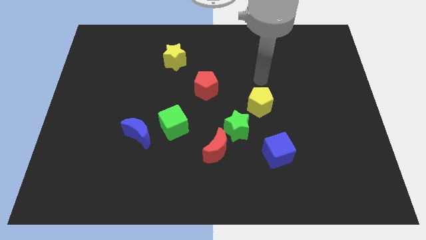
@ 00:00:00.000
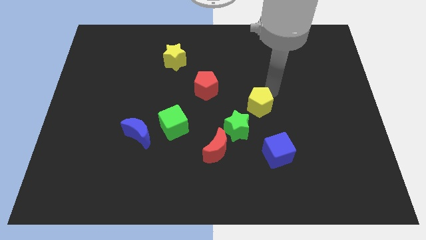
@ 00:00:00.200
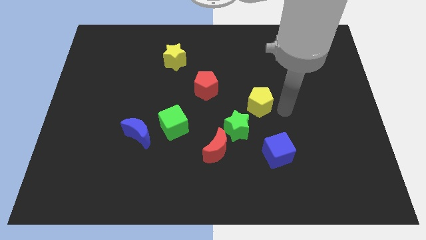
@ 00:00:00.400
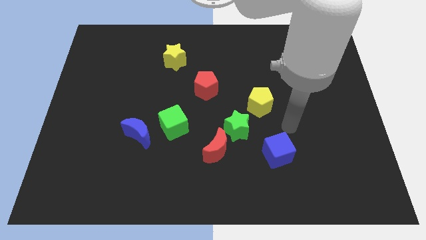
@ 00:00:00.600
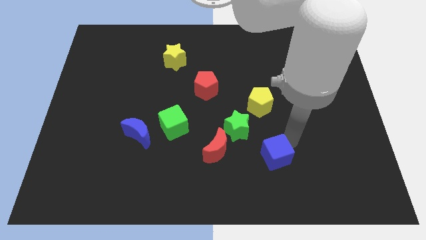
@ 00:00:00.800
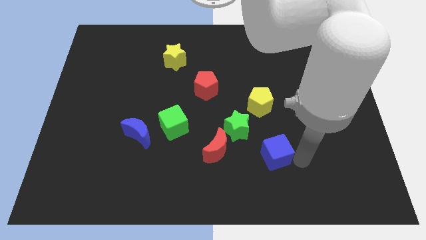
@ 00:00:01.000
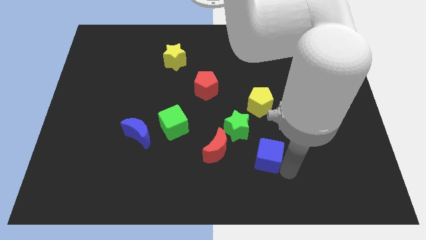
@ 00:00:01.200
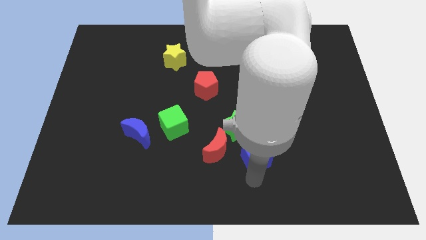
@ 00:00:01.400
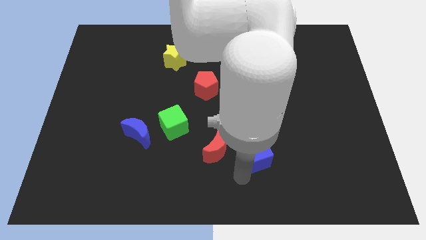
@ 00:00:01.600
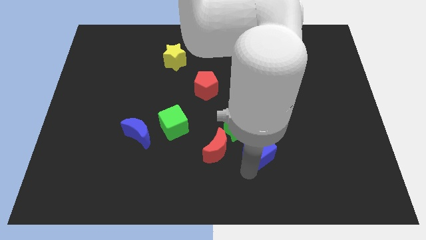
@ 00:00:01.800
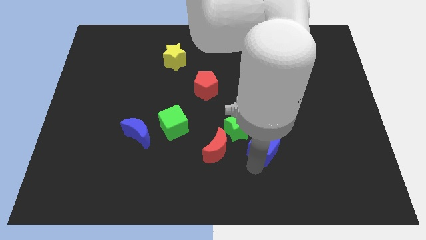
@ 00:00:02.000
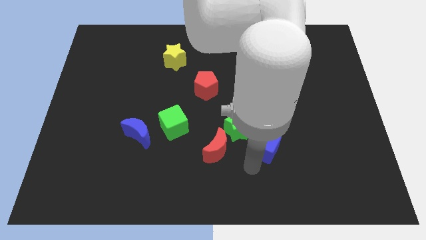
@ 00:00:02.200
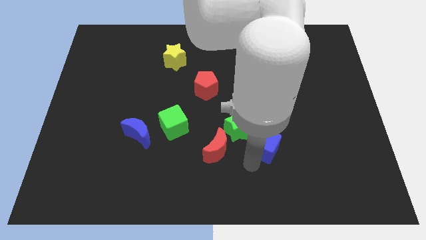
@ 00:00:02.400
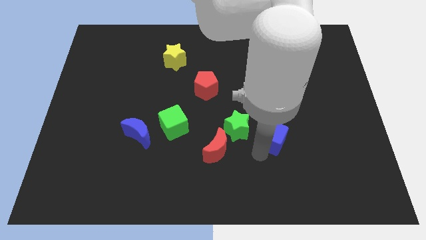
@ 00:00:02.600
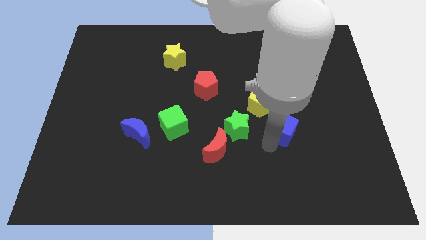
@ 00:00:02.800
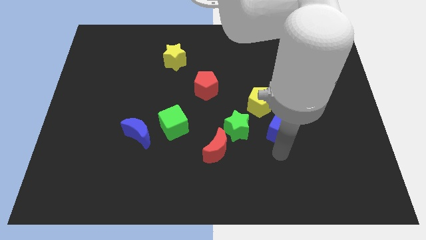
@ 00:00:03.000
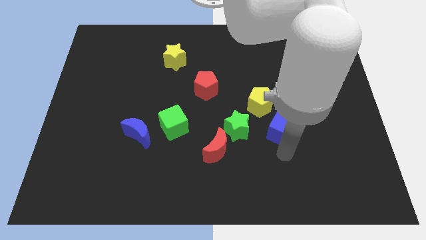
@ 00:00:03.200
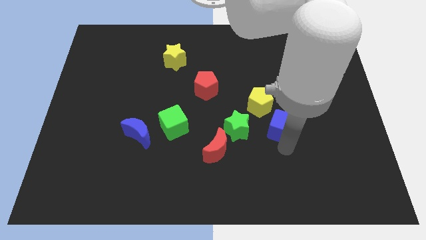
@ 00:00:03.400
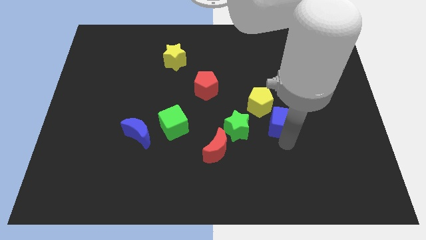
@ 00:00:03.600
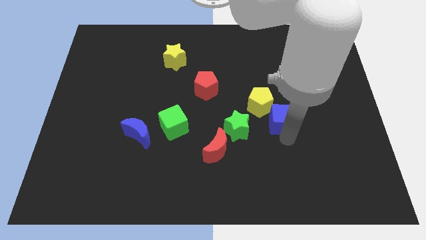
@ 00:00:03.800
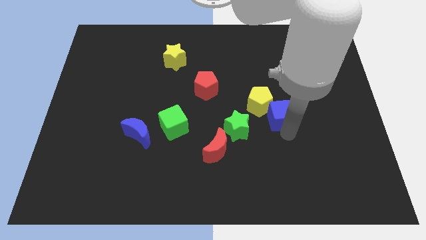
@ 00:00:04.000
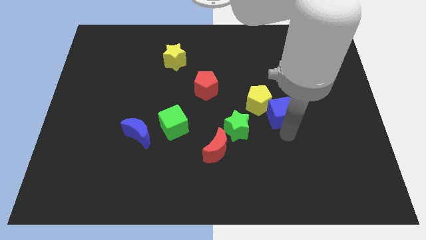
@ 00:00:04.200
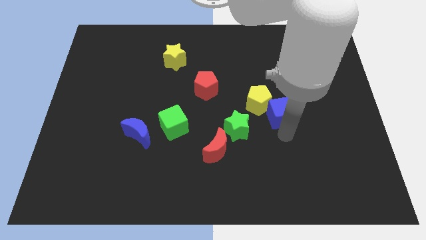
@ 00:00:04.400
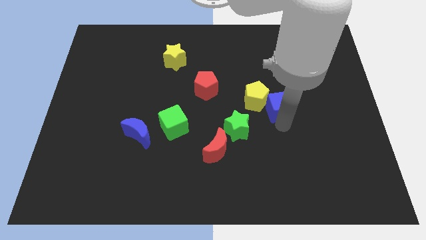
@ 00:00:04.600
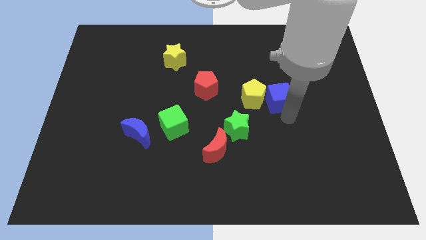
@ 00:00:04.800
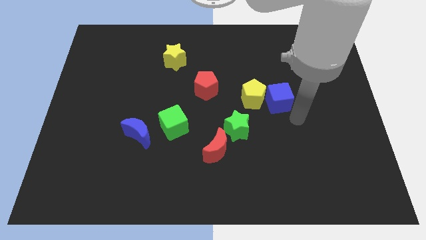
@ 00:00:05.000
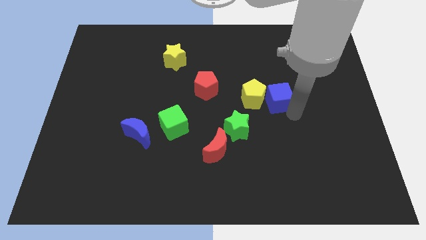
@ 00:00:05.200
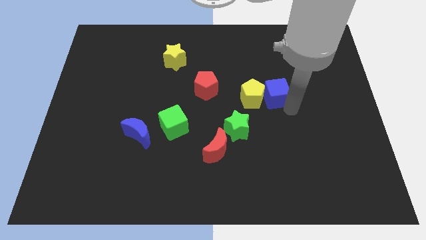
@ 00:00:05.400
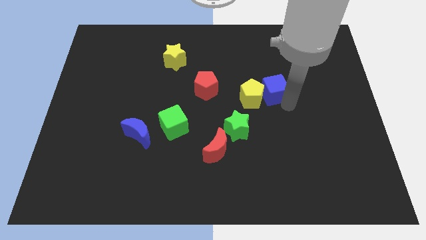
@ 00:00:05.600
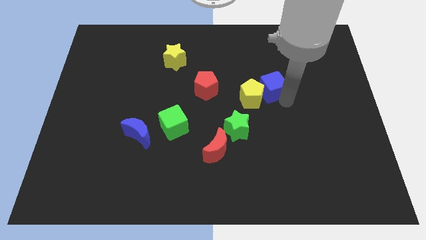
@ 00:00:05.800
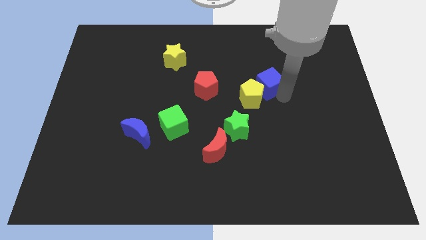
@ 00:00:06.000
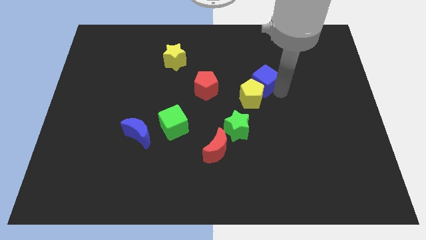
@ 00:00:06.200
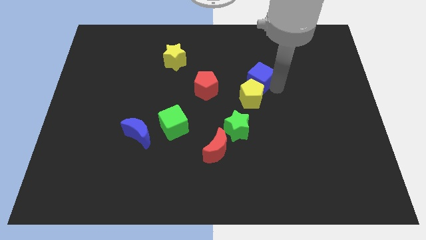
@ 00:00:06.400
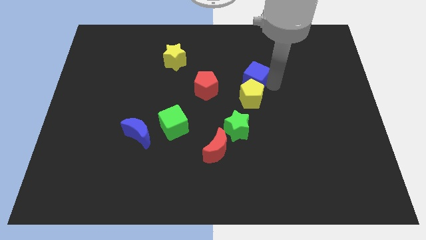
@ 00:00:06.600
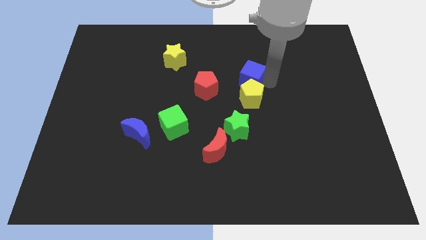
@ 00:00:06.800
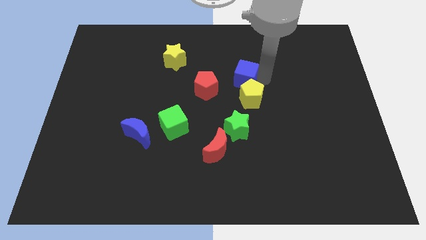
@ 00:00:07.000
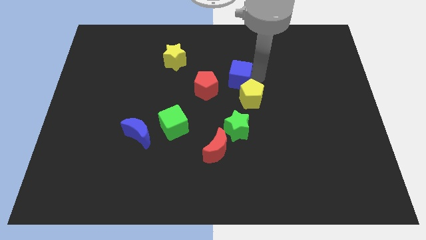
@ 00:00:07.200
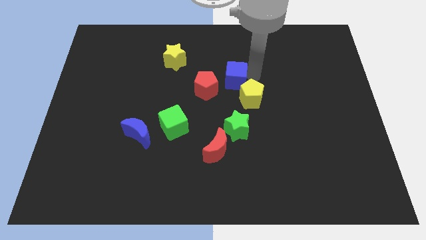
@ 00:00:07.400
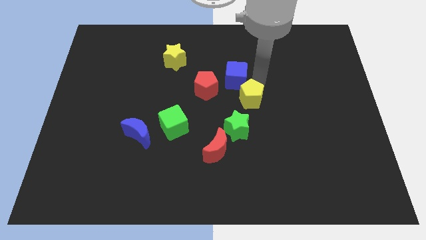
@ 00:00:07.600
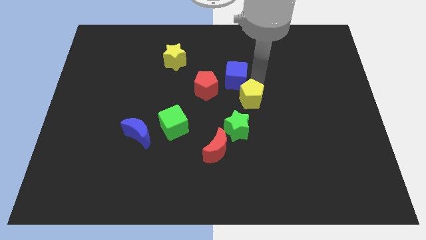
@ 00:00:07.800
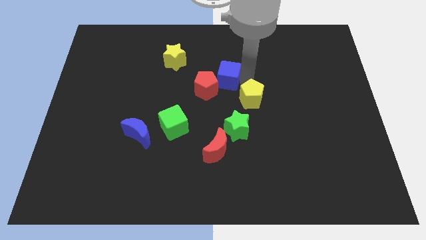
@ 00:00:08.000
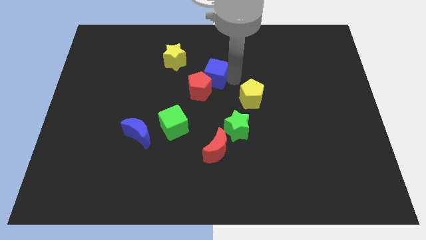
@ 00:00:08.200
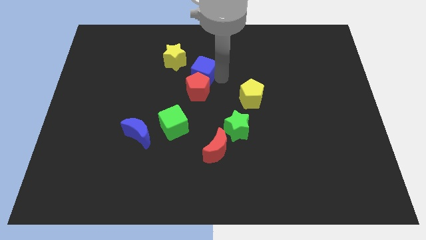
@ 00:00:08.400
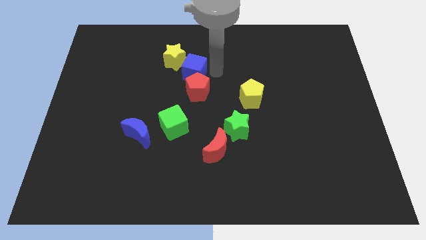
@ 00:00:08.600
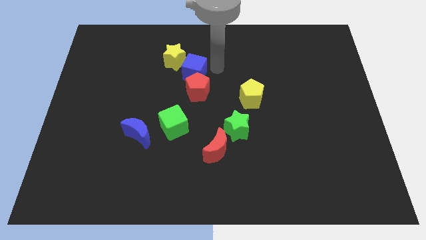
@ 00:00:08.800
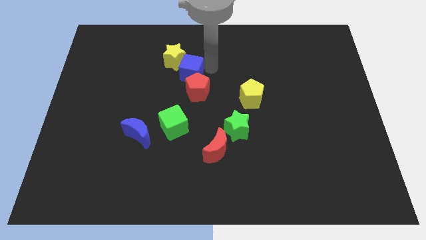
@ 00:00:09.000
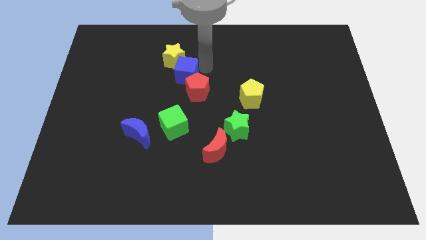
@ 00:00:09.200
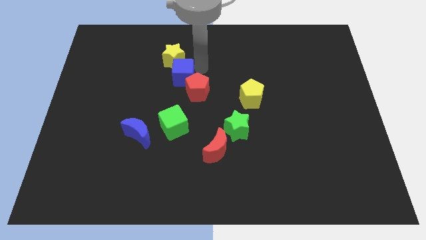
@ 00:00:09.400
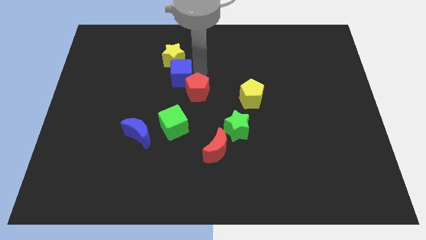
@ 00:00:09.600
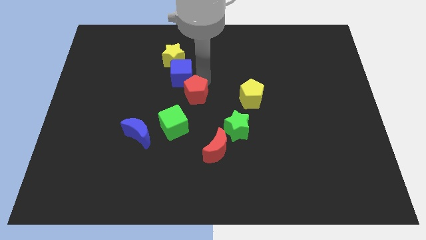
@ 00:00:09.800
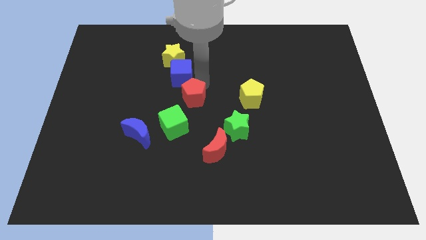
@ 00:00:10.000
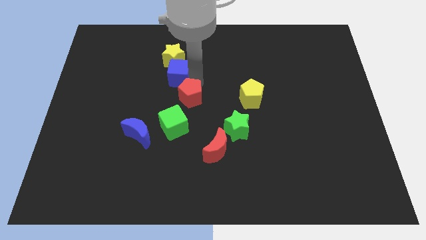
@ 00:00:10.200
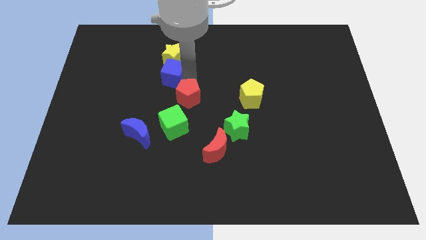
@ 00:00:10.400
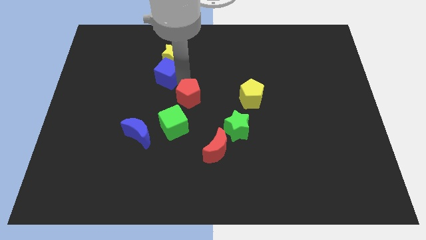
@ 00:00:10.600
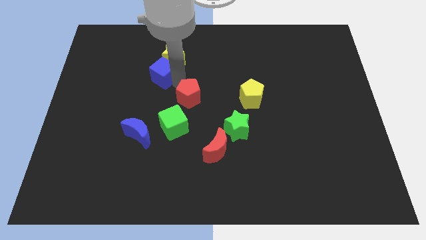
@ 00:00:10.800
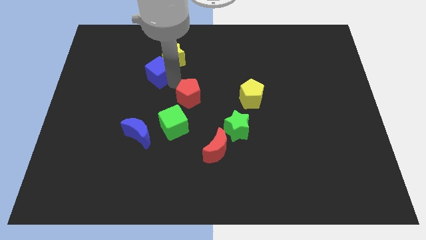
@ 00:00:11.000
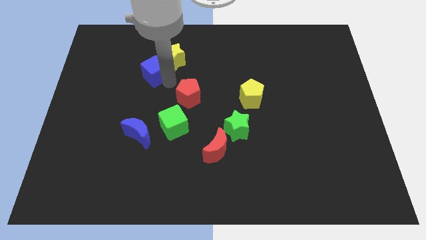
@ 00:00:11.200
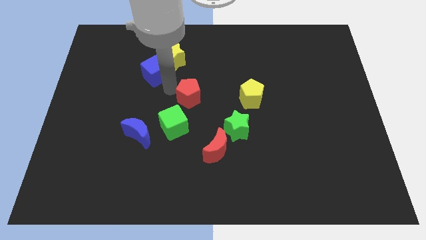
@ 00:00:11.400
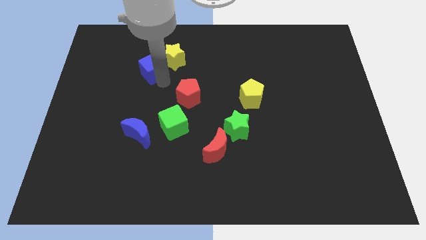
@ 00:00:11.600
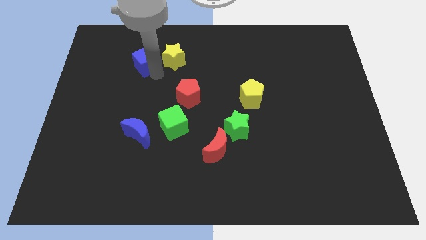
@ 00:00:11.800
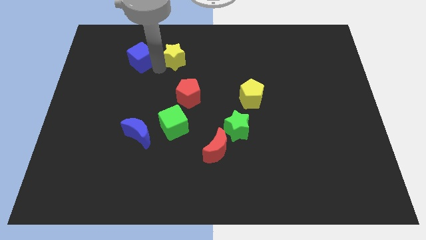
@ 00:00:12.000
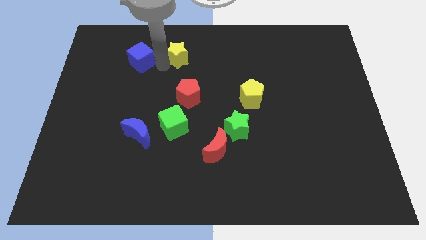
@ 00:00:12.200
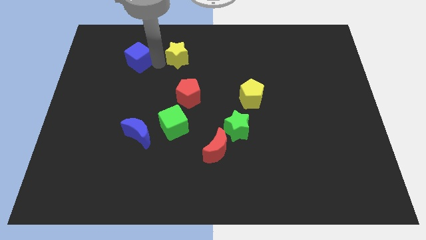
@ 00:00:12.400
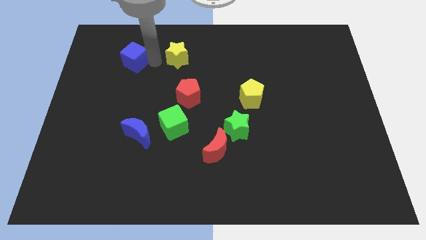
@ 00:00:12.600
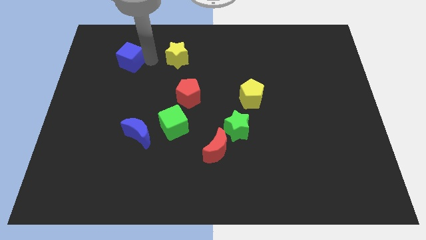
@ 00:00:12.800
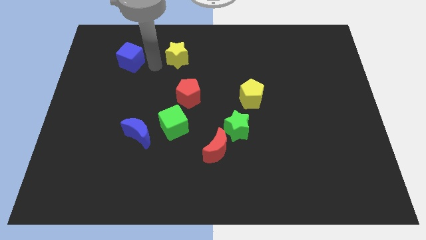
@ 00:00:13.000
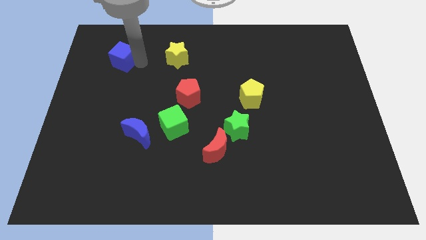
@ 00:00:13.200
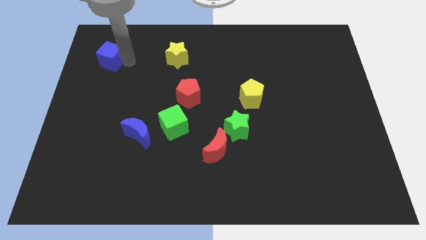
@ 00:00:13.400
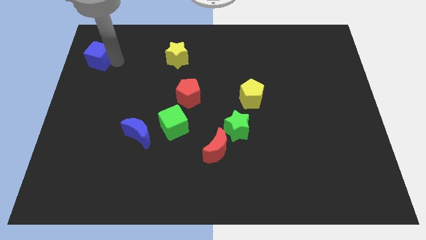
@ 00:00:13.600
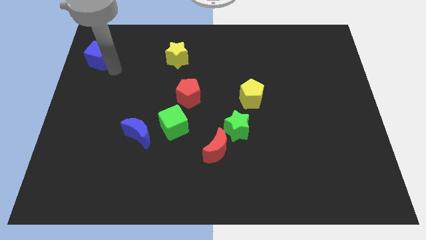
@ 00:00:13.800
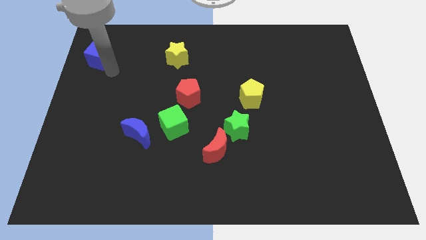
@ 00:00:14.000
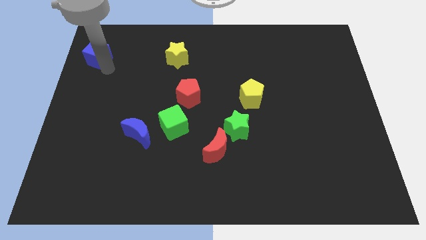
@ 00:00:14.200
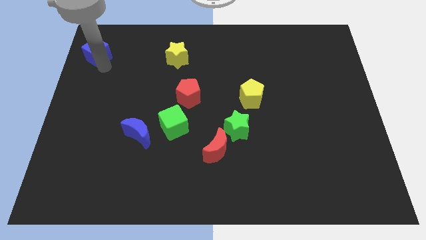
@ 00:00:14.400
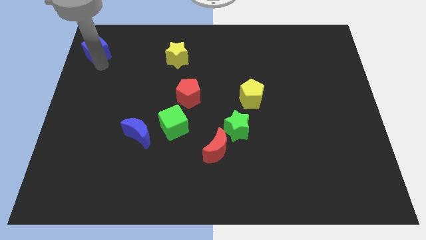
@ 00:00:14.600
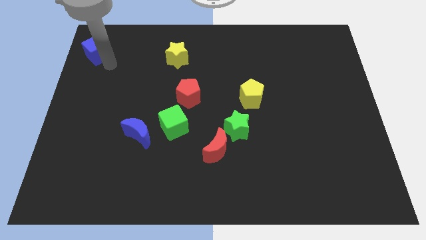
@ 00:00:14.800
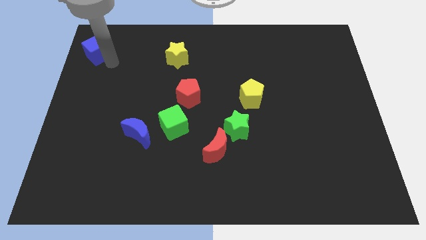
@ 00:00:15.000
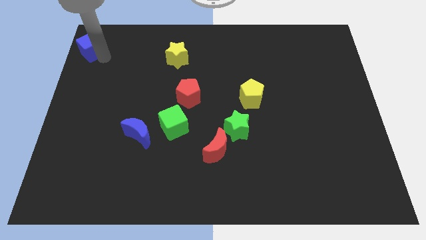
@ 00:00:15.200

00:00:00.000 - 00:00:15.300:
push the blue cube to the top left
